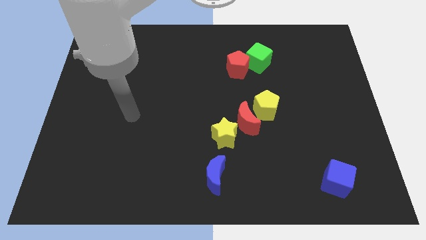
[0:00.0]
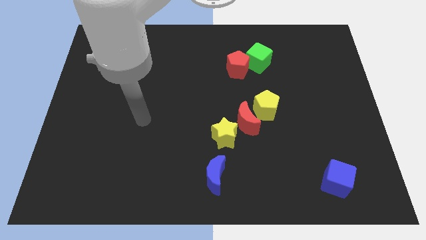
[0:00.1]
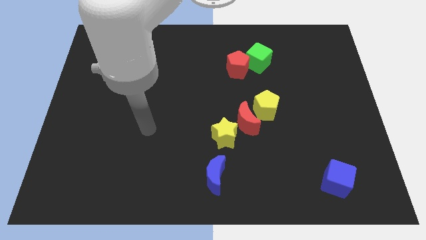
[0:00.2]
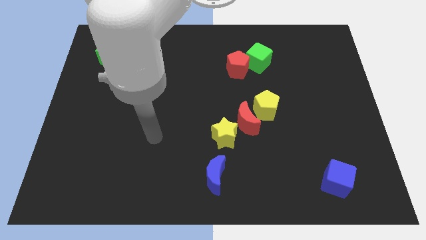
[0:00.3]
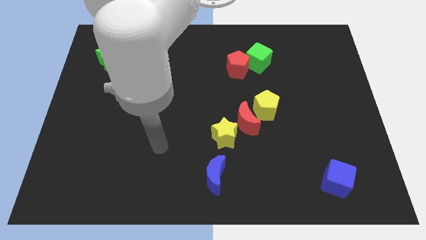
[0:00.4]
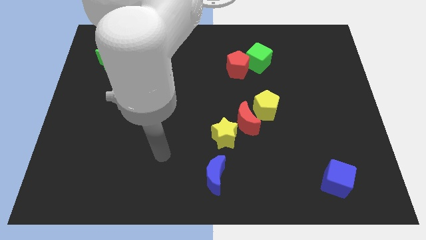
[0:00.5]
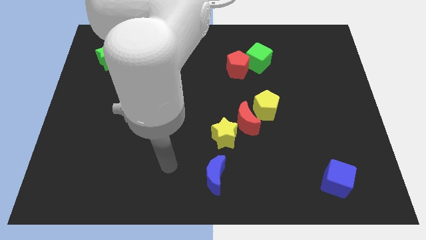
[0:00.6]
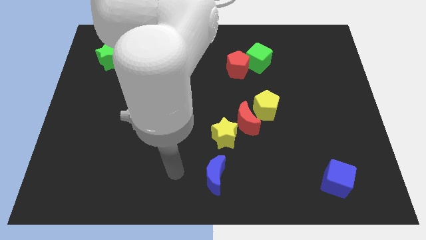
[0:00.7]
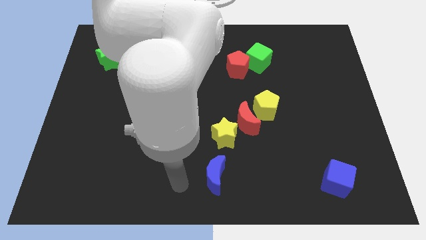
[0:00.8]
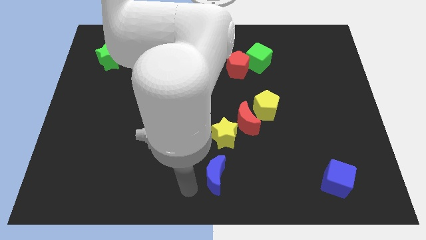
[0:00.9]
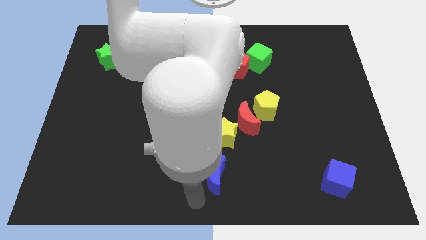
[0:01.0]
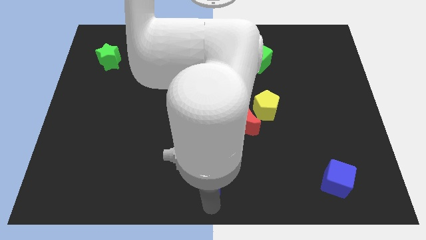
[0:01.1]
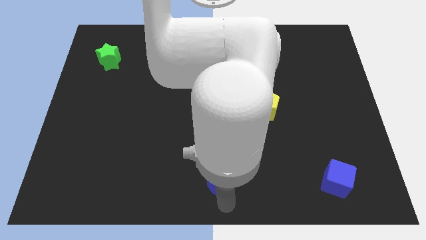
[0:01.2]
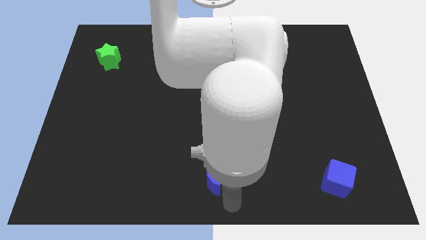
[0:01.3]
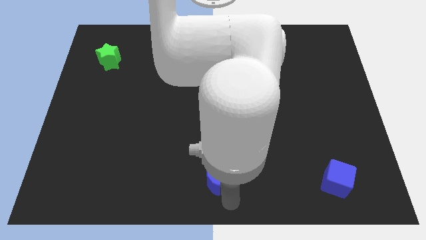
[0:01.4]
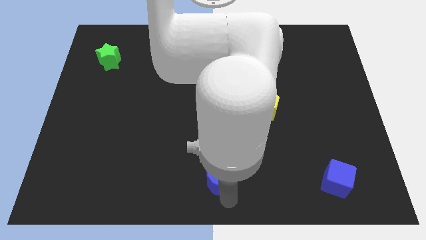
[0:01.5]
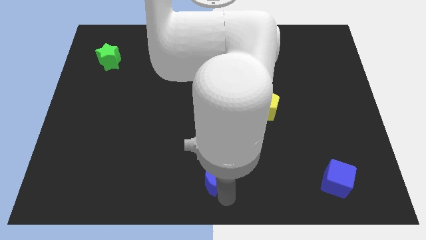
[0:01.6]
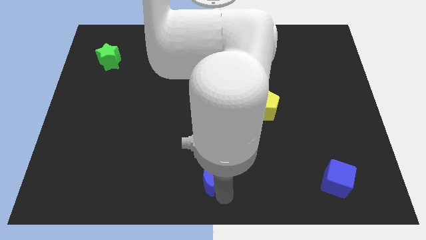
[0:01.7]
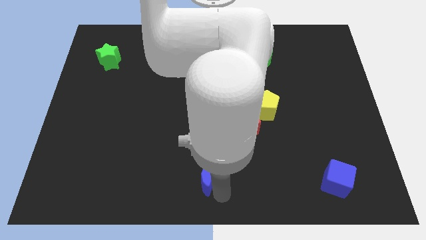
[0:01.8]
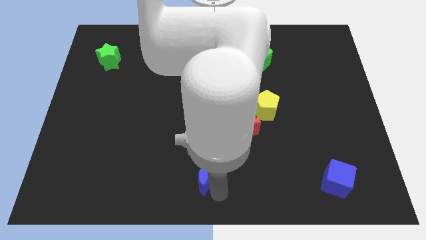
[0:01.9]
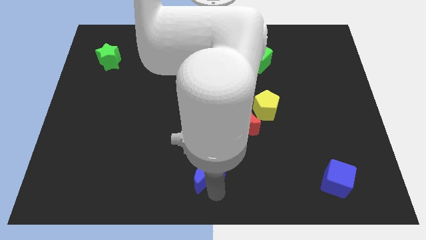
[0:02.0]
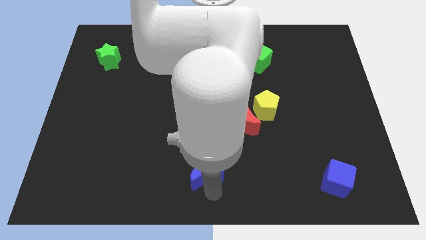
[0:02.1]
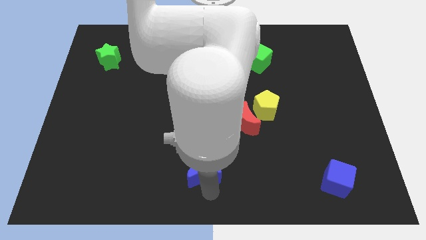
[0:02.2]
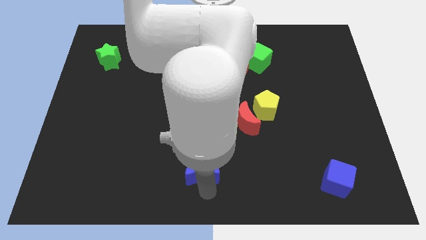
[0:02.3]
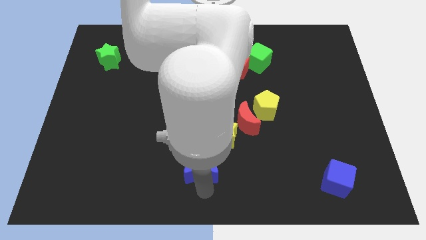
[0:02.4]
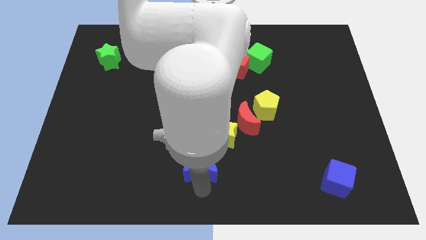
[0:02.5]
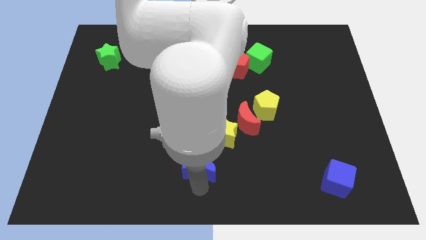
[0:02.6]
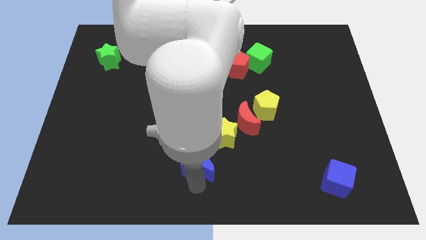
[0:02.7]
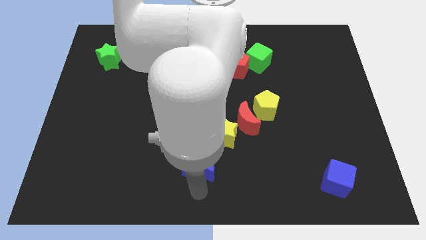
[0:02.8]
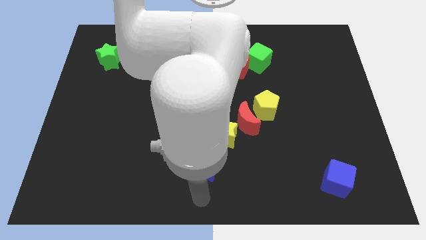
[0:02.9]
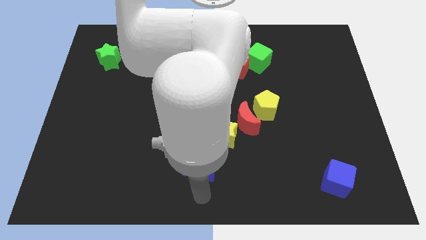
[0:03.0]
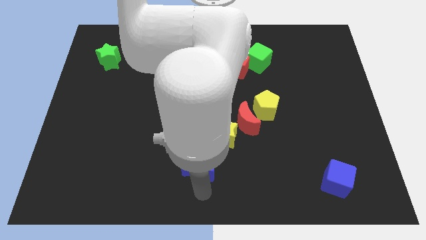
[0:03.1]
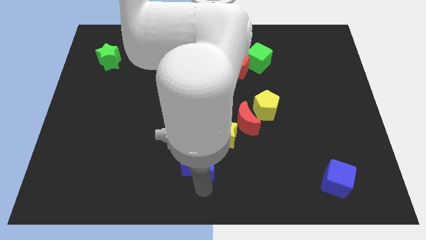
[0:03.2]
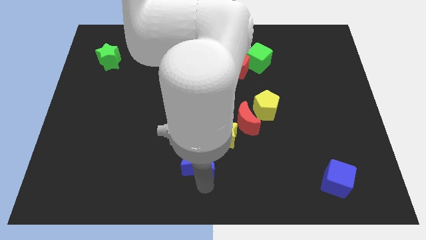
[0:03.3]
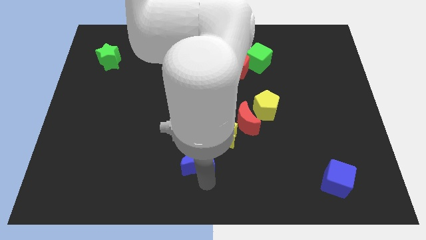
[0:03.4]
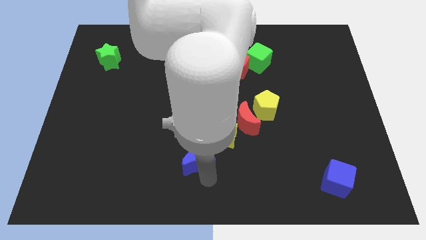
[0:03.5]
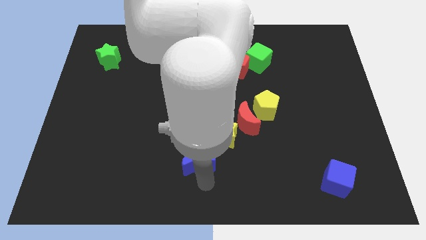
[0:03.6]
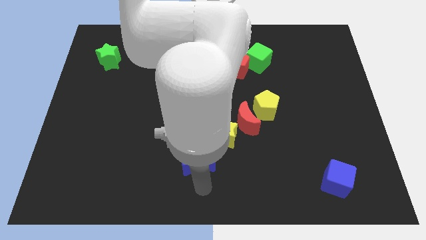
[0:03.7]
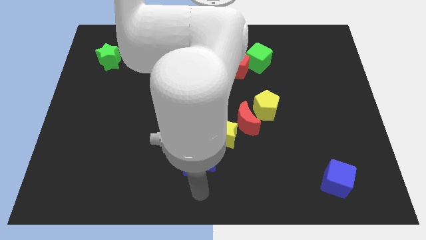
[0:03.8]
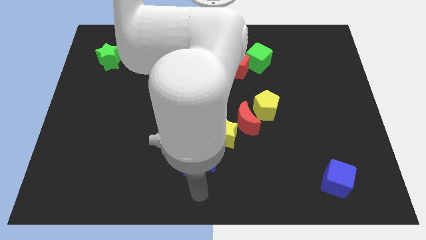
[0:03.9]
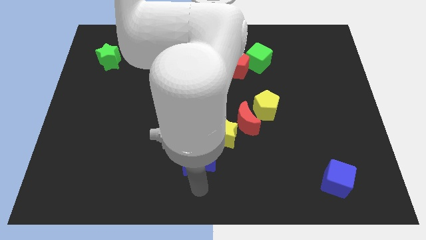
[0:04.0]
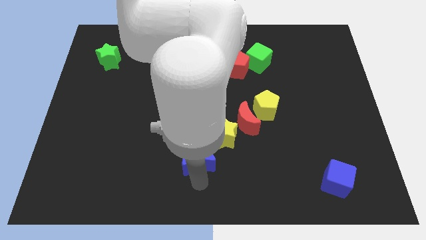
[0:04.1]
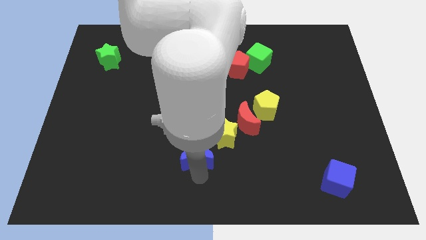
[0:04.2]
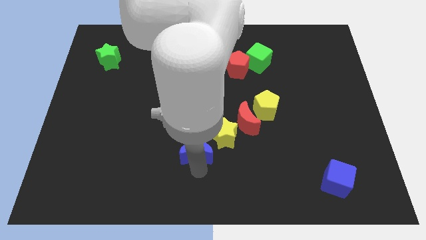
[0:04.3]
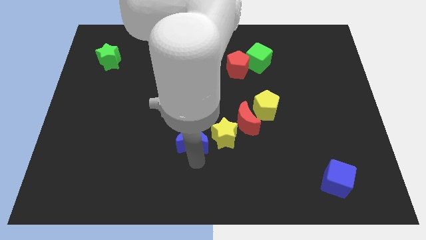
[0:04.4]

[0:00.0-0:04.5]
slightly push the blue moon up

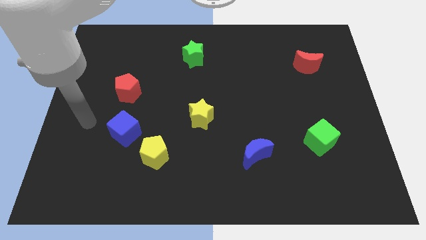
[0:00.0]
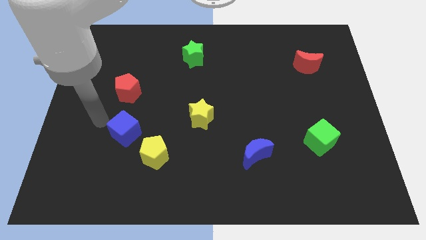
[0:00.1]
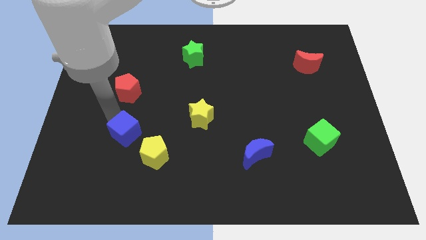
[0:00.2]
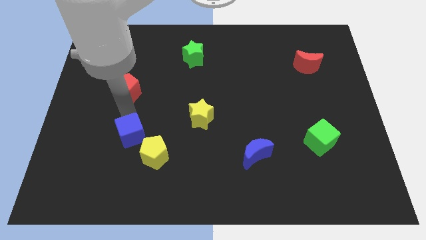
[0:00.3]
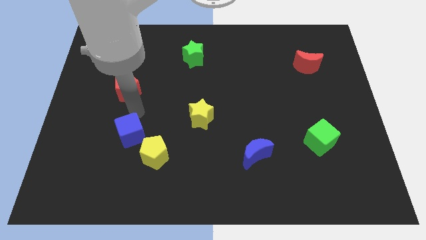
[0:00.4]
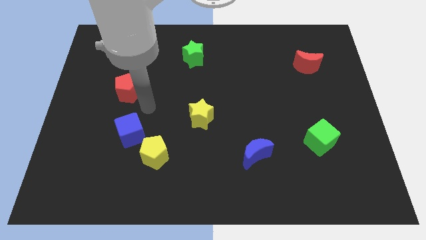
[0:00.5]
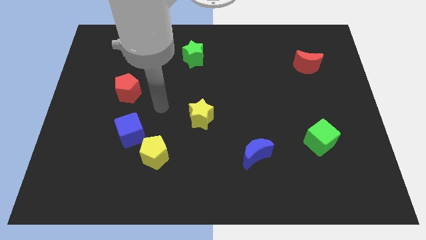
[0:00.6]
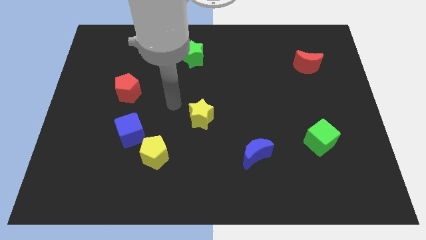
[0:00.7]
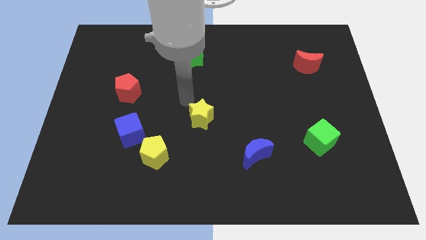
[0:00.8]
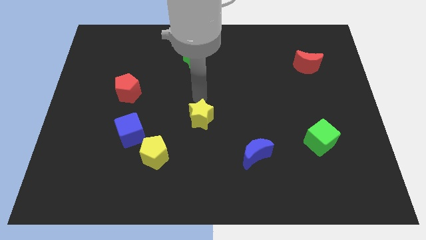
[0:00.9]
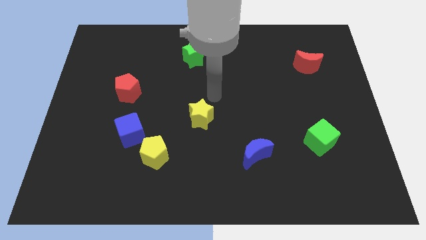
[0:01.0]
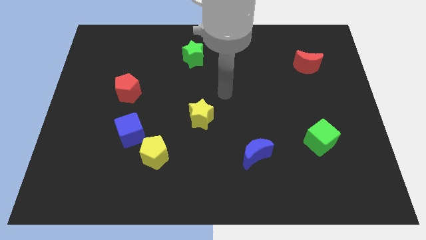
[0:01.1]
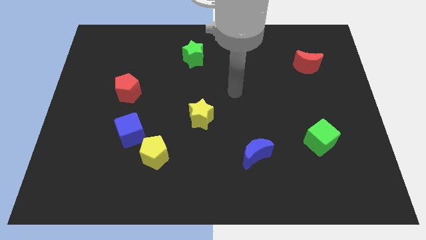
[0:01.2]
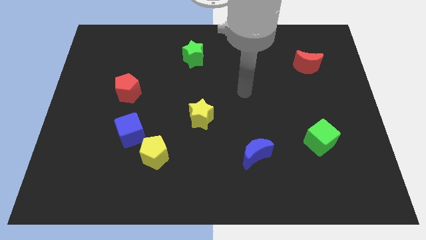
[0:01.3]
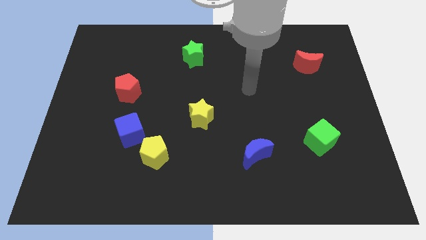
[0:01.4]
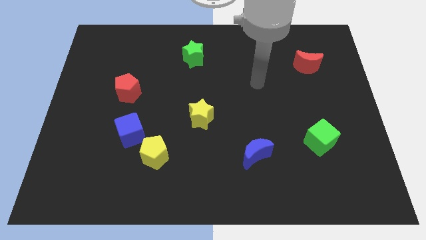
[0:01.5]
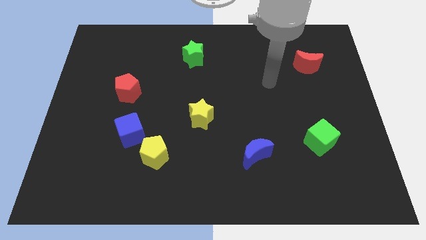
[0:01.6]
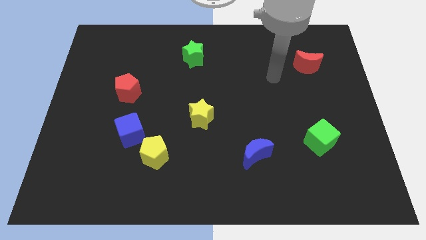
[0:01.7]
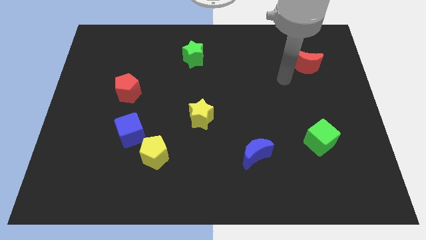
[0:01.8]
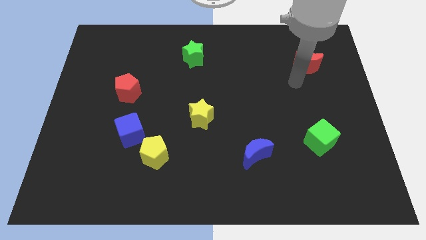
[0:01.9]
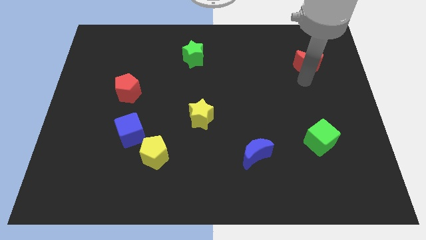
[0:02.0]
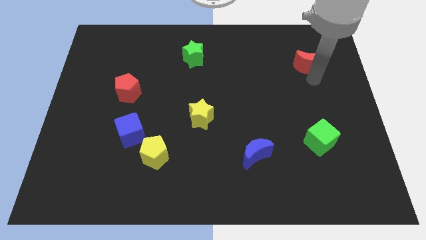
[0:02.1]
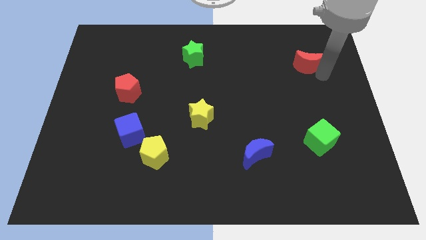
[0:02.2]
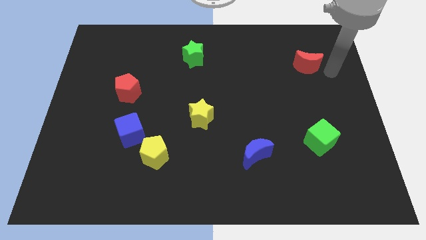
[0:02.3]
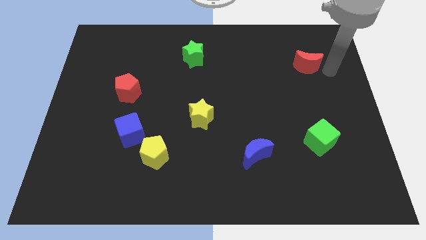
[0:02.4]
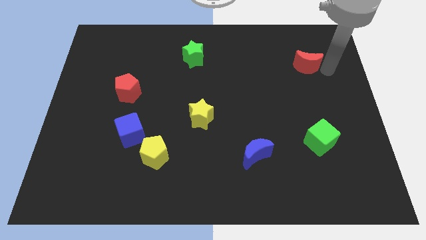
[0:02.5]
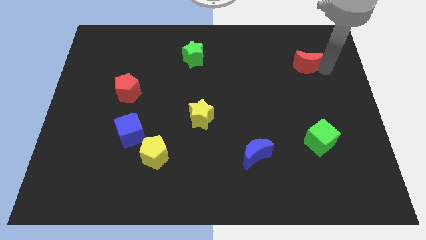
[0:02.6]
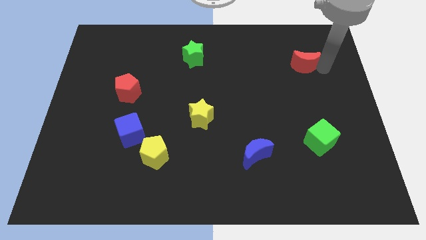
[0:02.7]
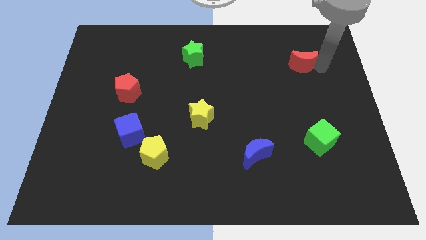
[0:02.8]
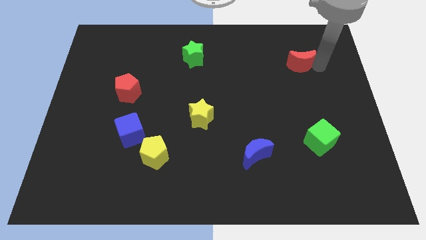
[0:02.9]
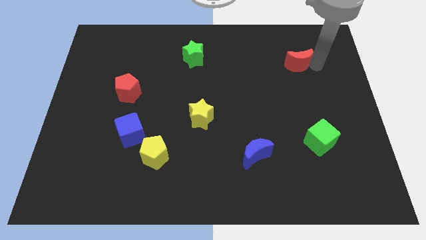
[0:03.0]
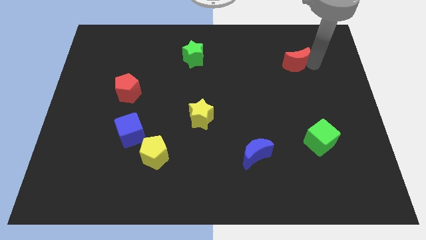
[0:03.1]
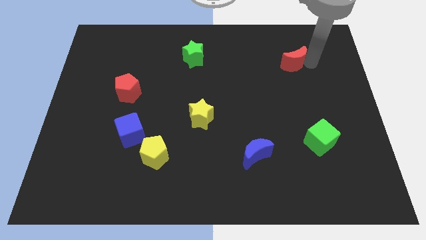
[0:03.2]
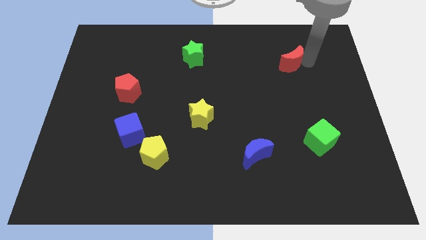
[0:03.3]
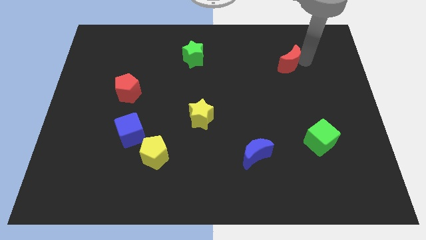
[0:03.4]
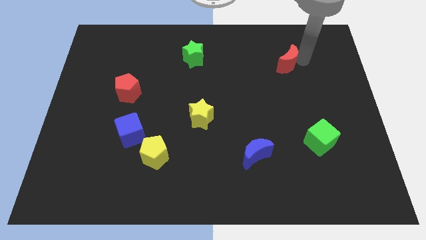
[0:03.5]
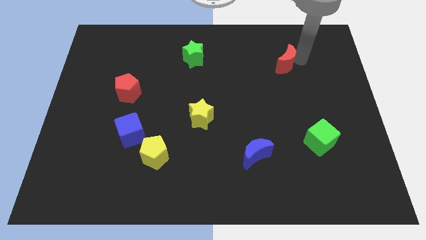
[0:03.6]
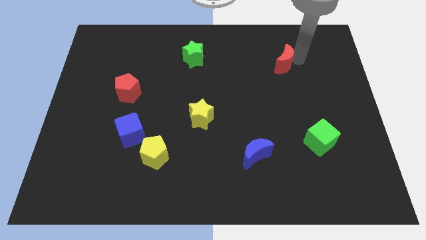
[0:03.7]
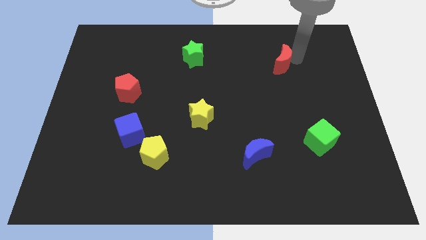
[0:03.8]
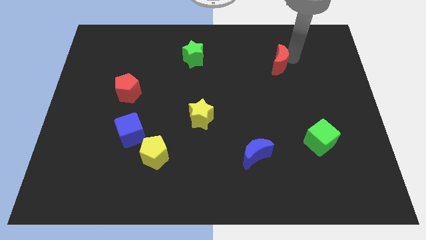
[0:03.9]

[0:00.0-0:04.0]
slightly move the red moon to the left
